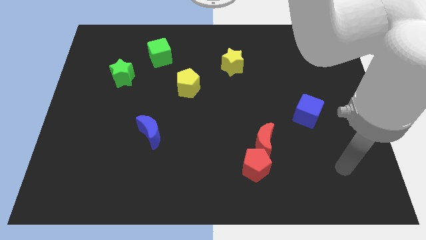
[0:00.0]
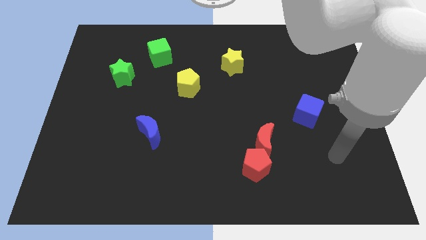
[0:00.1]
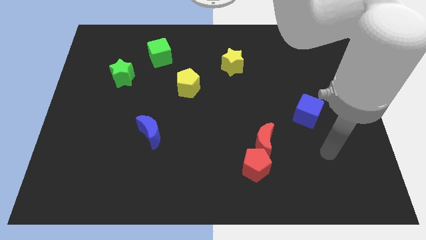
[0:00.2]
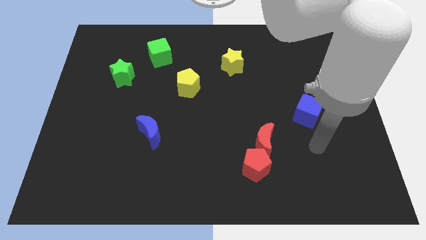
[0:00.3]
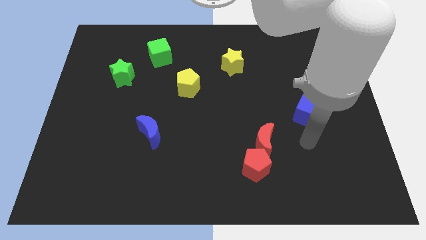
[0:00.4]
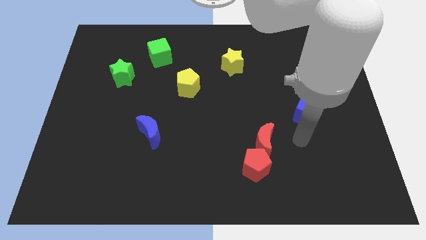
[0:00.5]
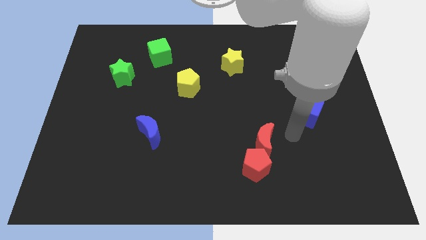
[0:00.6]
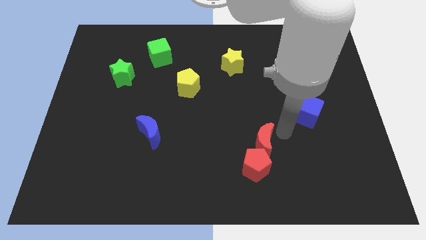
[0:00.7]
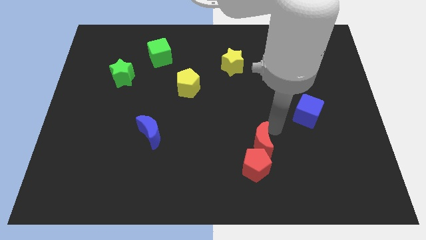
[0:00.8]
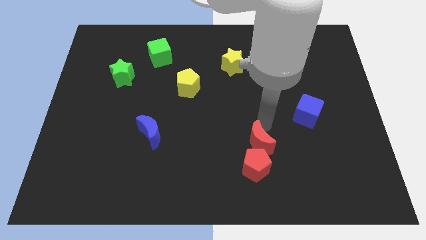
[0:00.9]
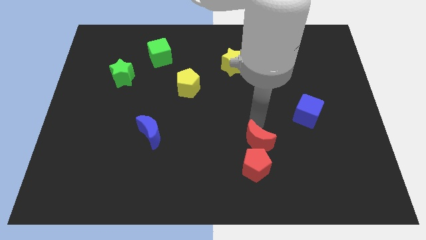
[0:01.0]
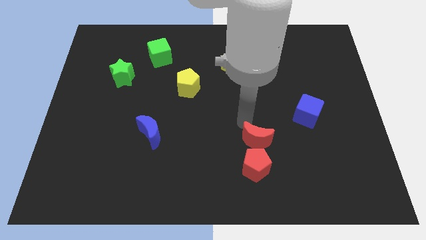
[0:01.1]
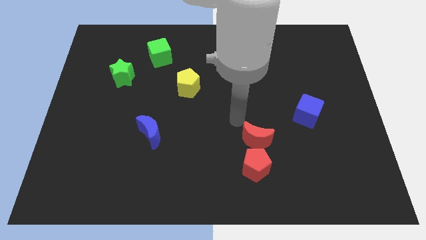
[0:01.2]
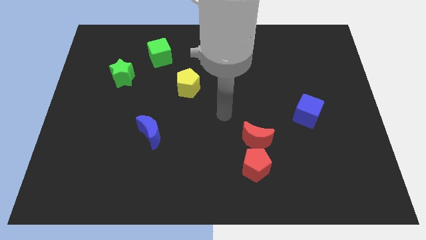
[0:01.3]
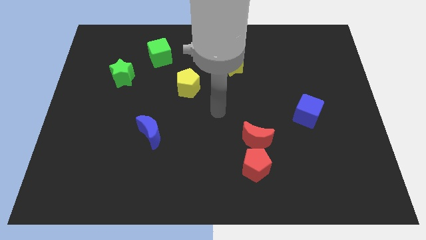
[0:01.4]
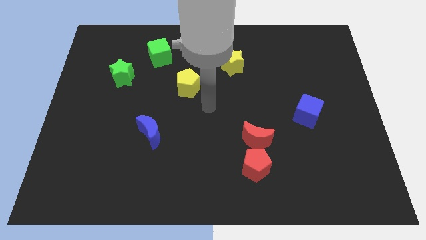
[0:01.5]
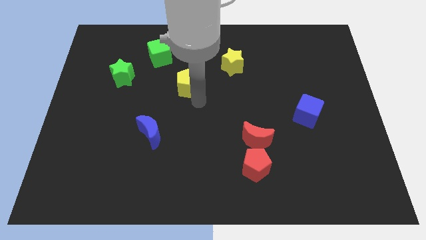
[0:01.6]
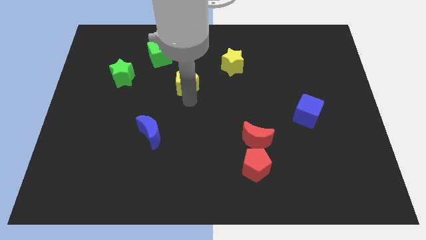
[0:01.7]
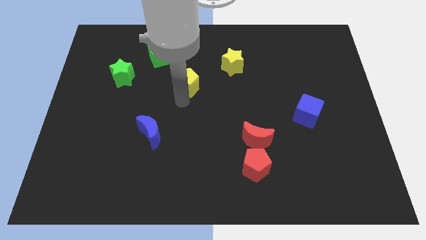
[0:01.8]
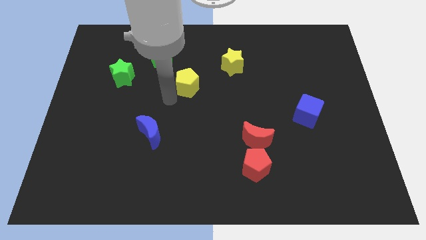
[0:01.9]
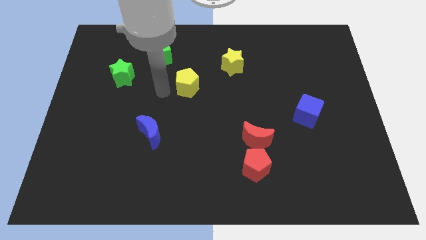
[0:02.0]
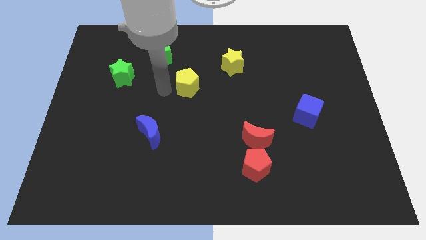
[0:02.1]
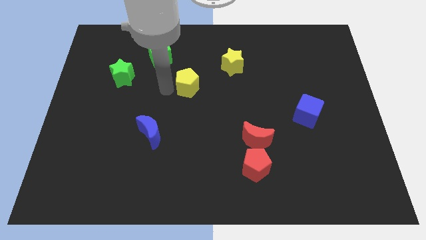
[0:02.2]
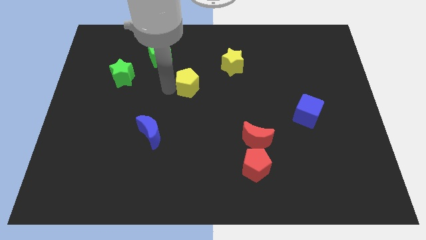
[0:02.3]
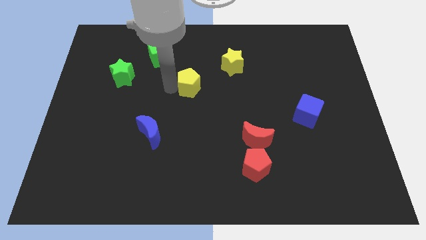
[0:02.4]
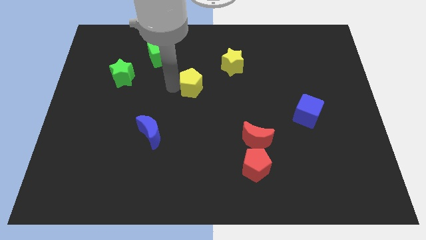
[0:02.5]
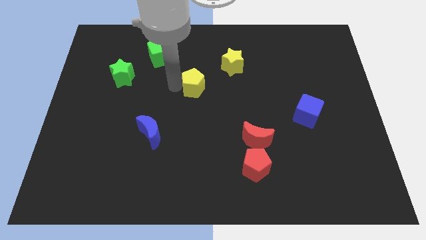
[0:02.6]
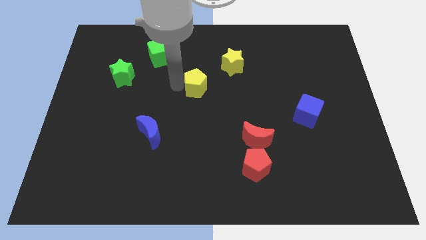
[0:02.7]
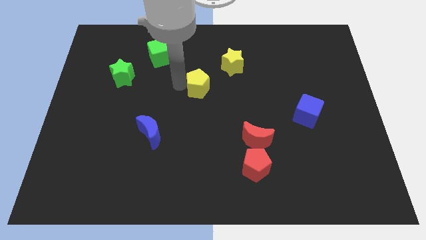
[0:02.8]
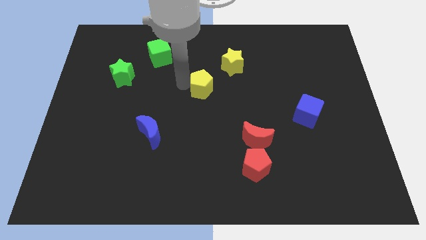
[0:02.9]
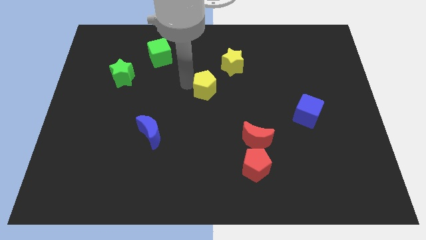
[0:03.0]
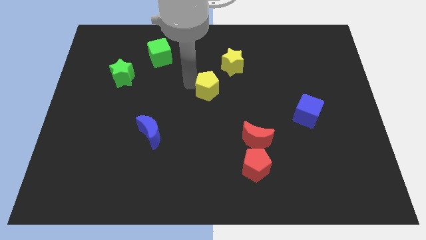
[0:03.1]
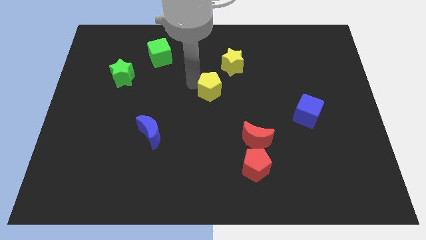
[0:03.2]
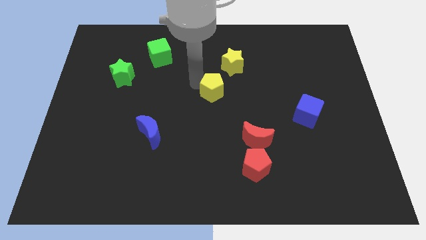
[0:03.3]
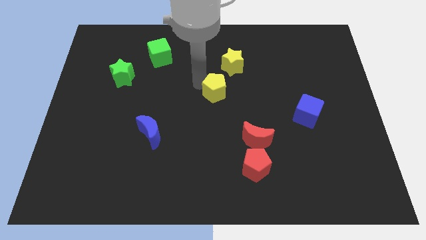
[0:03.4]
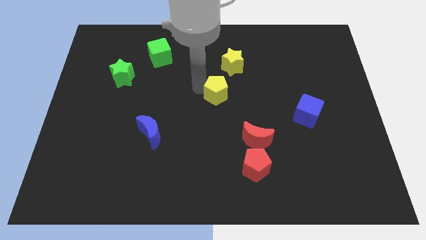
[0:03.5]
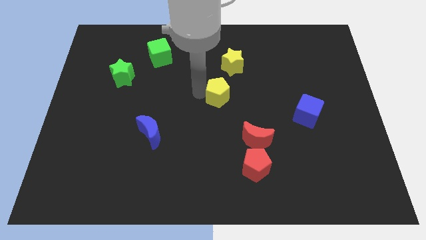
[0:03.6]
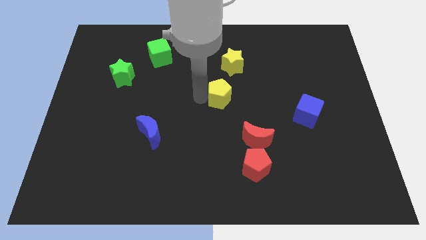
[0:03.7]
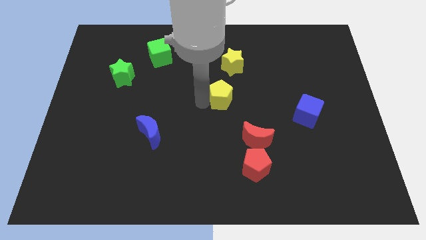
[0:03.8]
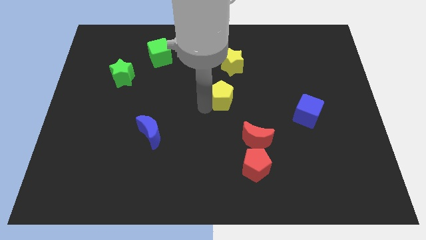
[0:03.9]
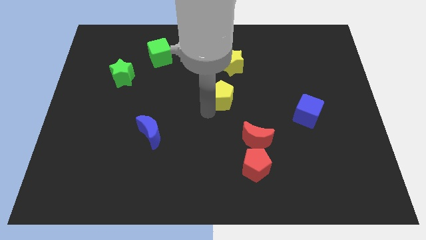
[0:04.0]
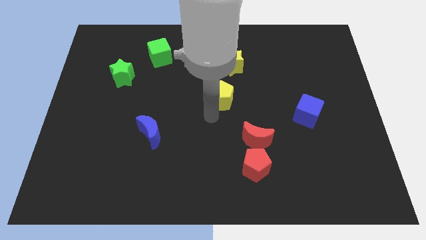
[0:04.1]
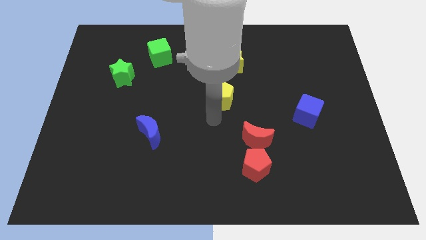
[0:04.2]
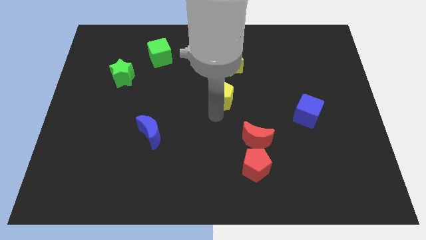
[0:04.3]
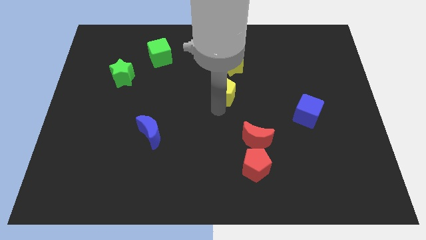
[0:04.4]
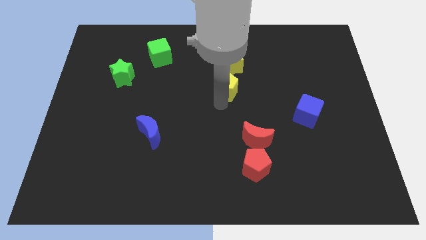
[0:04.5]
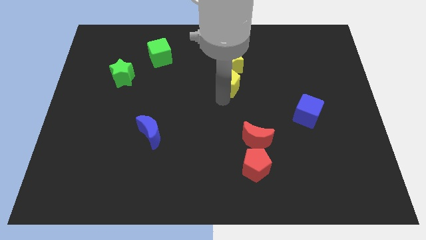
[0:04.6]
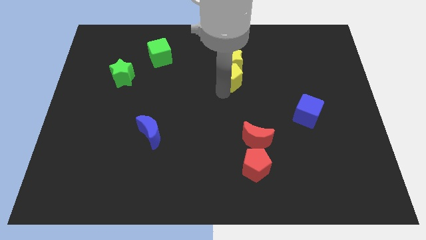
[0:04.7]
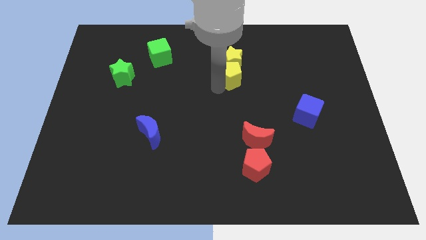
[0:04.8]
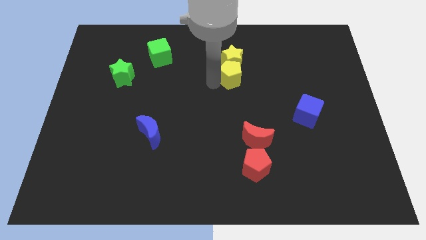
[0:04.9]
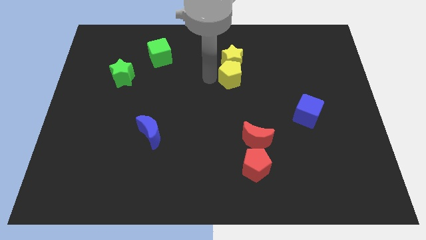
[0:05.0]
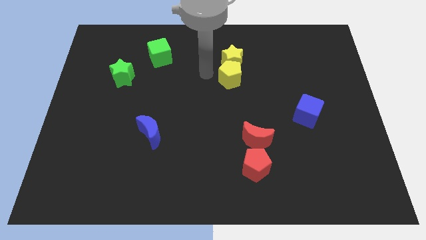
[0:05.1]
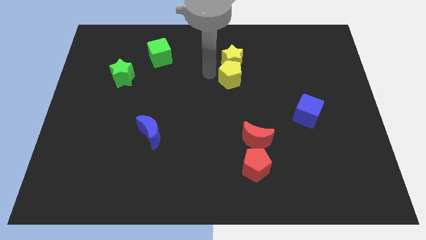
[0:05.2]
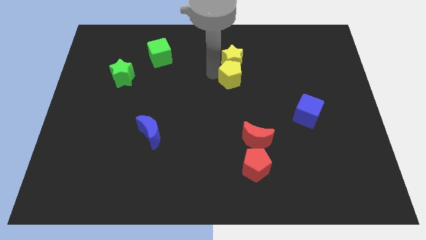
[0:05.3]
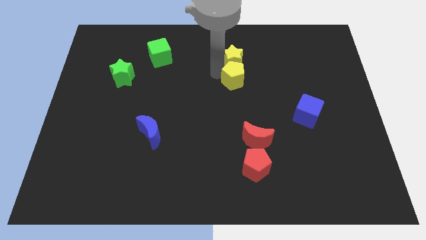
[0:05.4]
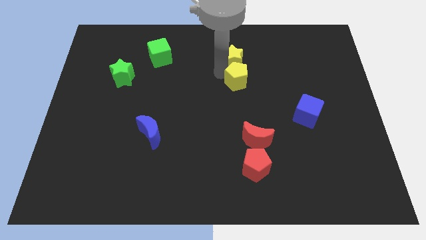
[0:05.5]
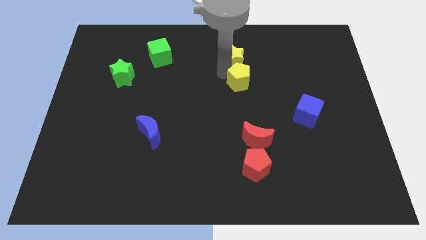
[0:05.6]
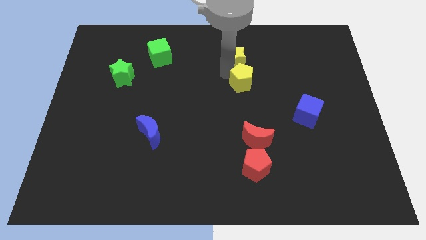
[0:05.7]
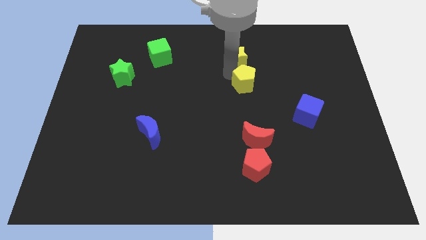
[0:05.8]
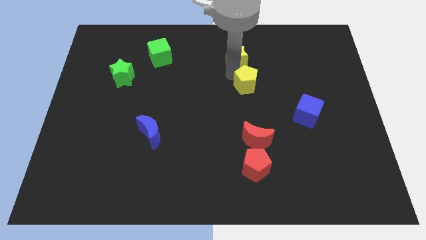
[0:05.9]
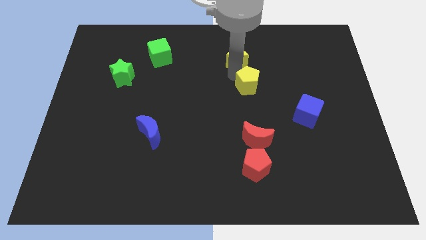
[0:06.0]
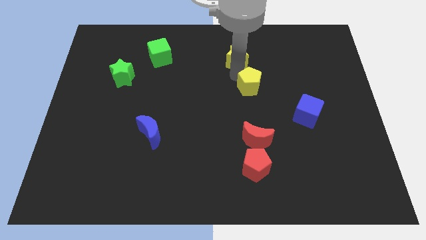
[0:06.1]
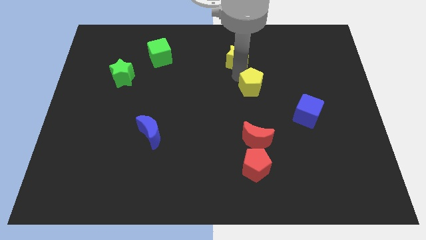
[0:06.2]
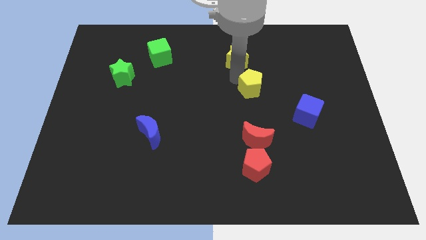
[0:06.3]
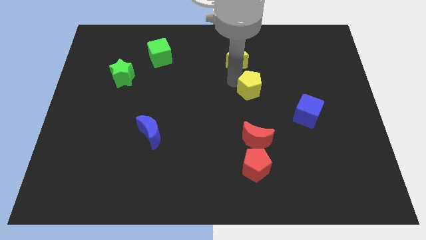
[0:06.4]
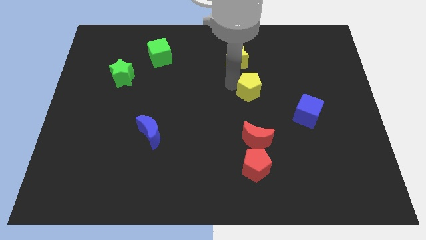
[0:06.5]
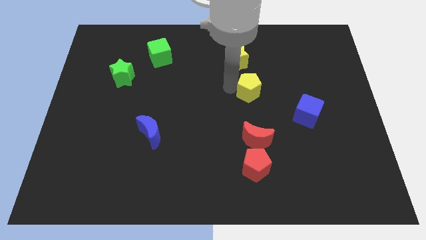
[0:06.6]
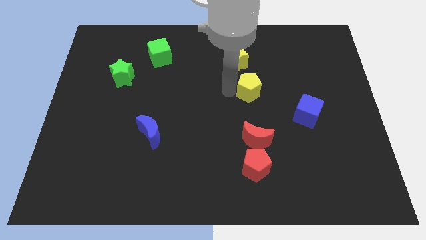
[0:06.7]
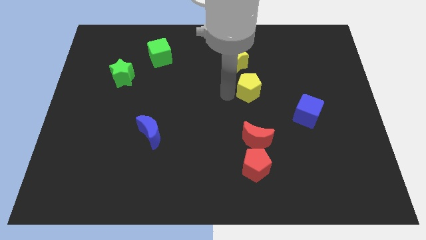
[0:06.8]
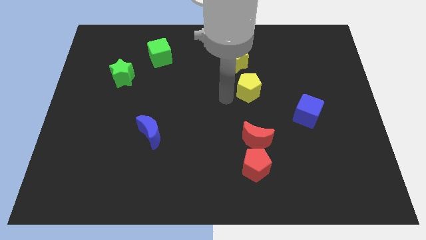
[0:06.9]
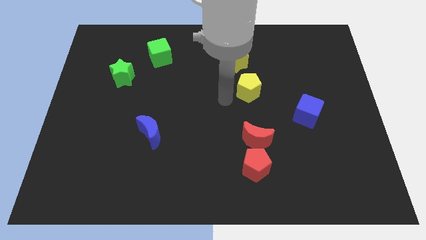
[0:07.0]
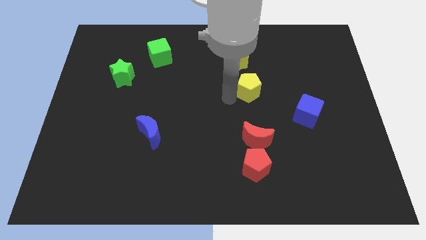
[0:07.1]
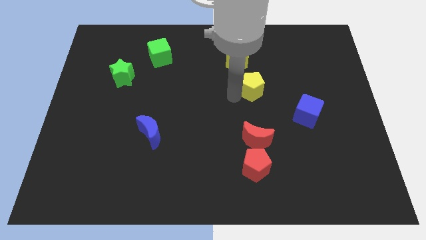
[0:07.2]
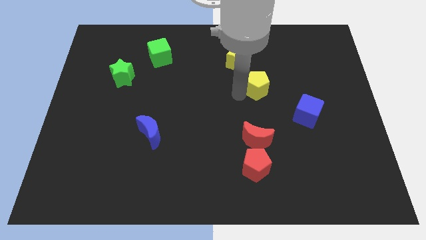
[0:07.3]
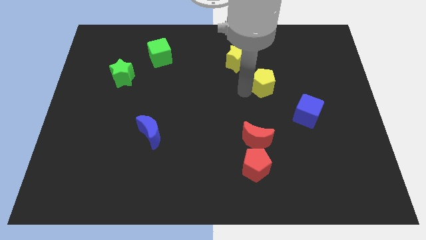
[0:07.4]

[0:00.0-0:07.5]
put the yellow pentagon to the top left side of the blue cube
